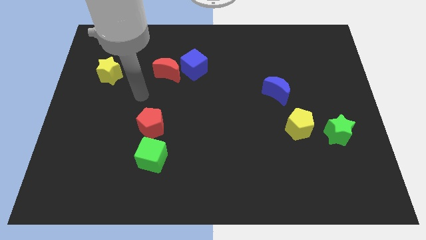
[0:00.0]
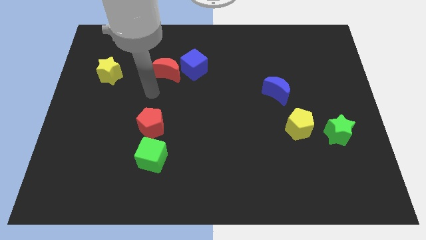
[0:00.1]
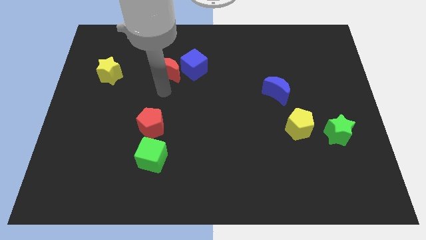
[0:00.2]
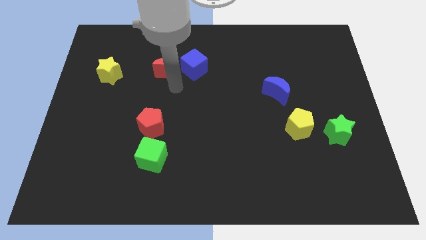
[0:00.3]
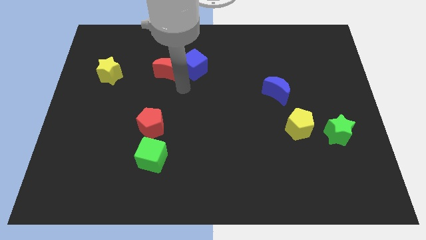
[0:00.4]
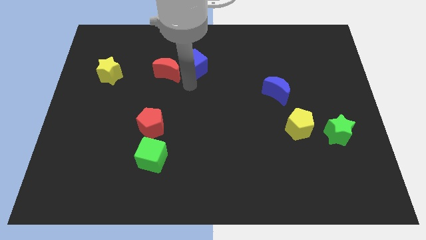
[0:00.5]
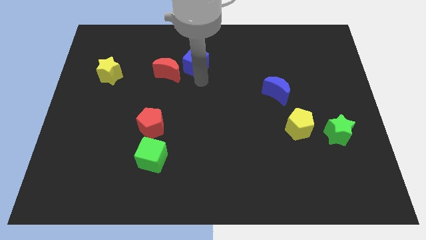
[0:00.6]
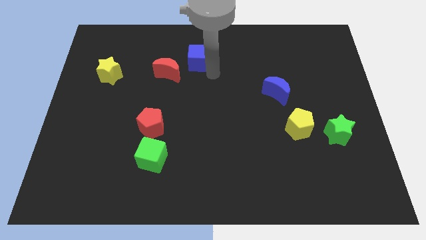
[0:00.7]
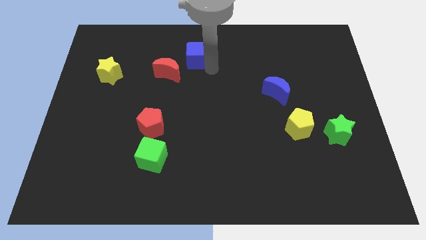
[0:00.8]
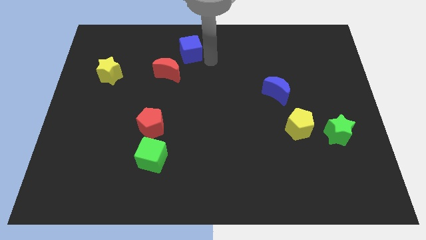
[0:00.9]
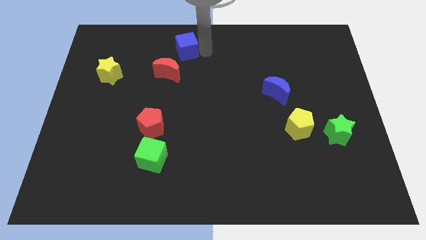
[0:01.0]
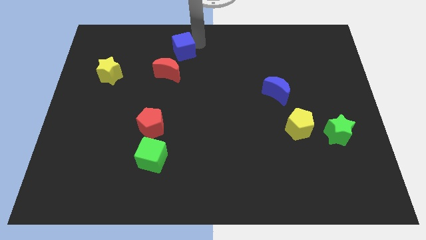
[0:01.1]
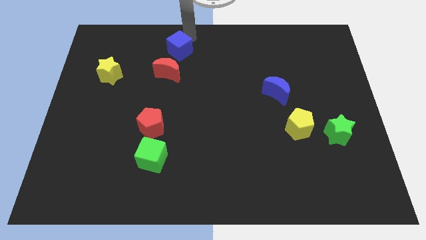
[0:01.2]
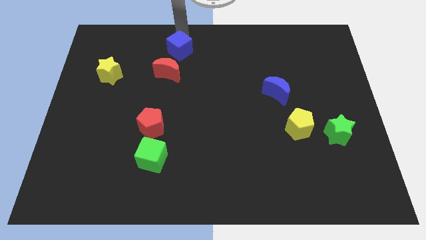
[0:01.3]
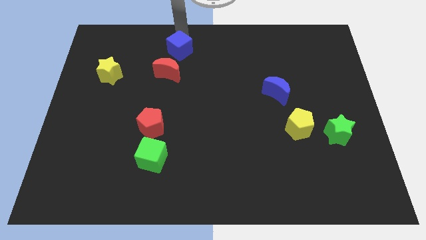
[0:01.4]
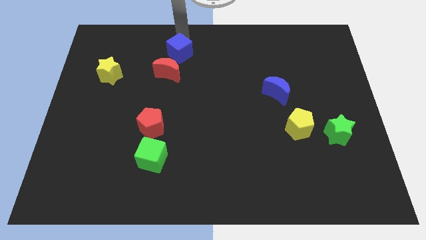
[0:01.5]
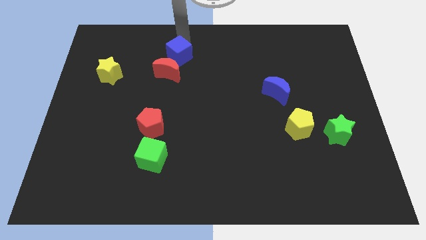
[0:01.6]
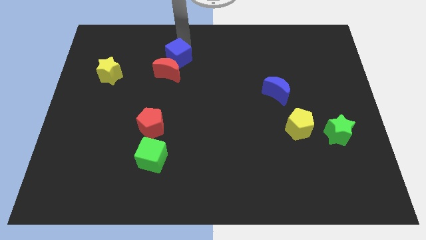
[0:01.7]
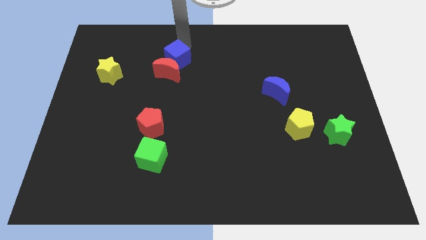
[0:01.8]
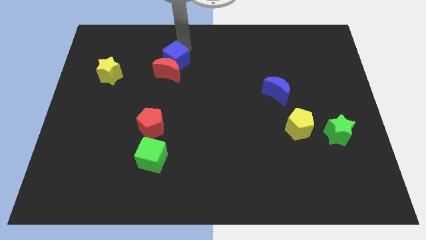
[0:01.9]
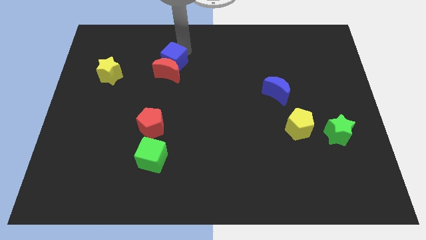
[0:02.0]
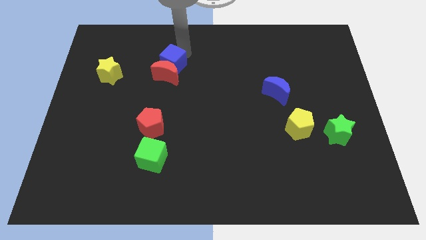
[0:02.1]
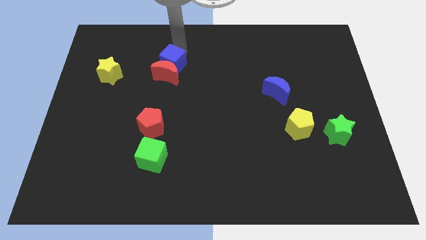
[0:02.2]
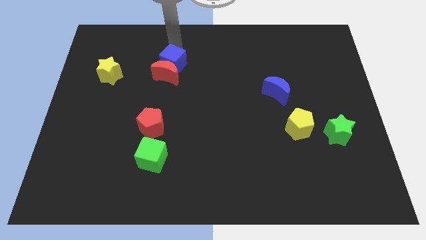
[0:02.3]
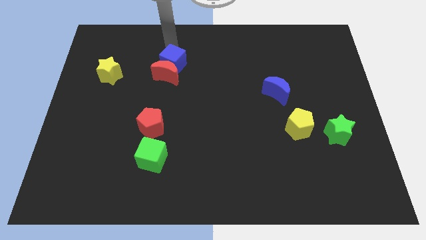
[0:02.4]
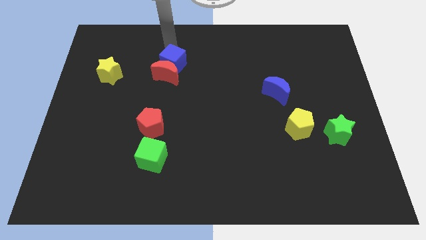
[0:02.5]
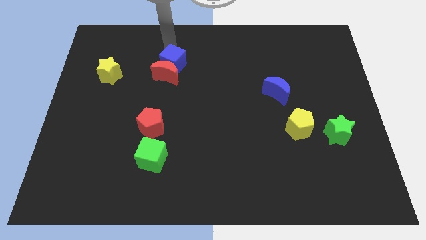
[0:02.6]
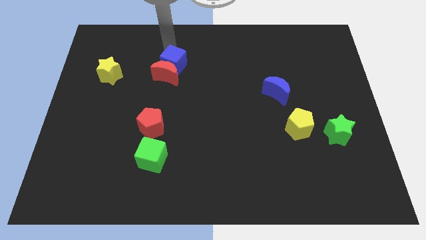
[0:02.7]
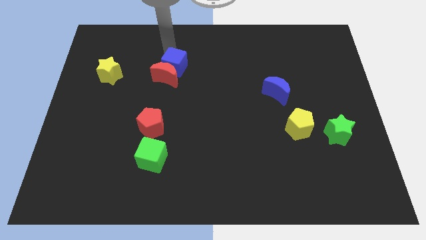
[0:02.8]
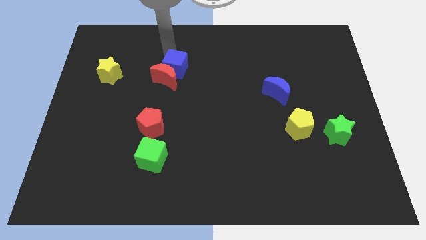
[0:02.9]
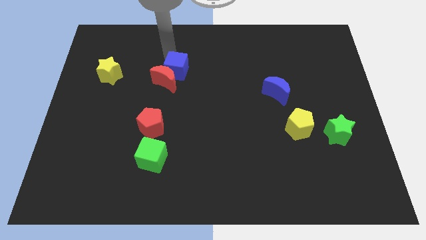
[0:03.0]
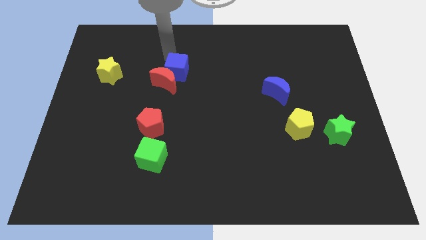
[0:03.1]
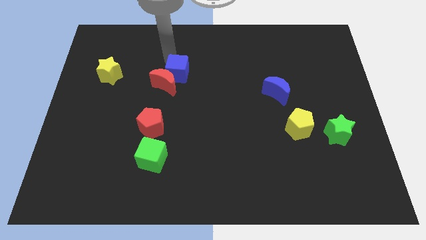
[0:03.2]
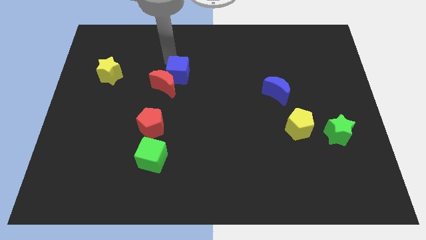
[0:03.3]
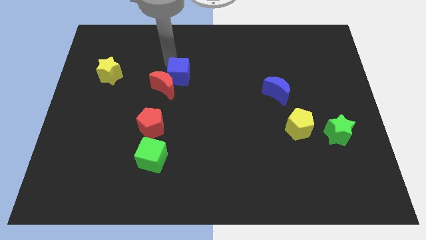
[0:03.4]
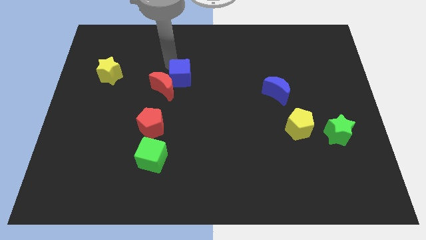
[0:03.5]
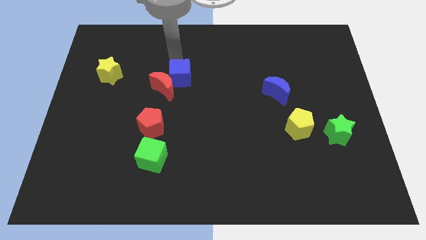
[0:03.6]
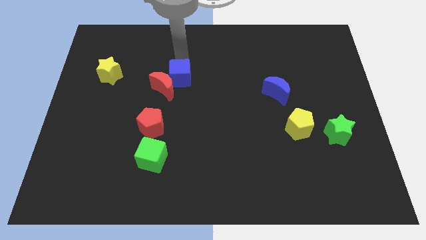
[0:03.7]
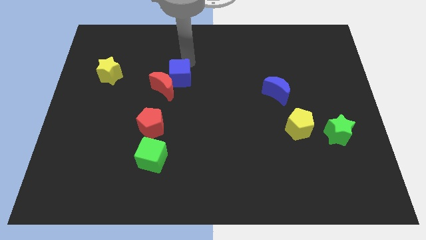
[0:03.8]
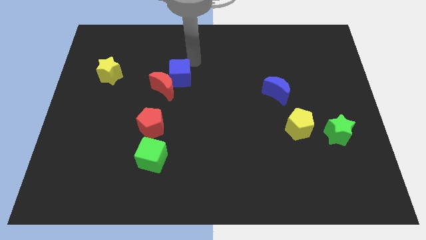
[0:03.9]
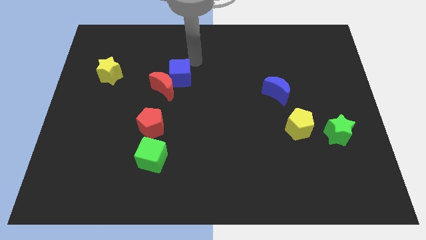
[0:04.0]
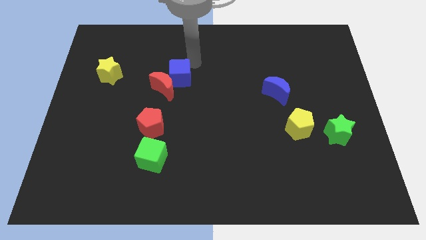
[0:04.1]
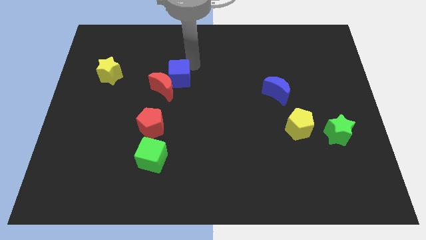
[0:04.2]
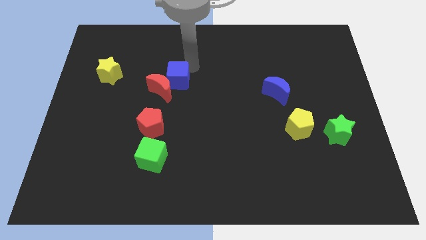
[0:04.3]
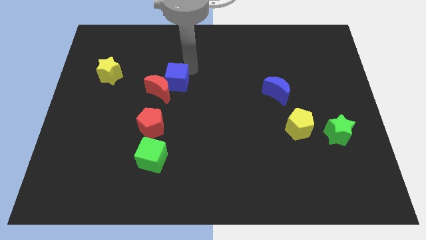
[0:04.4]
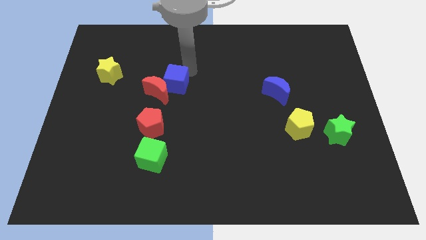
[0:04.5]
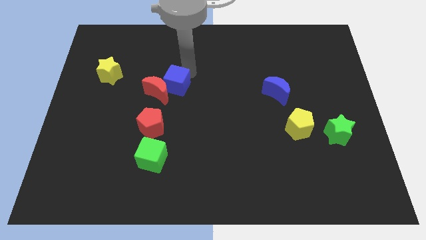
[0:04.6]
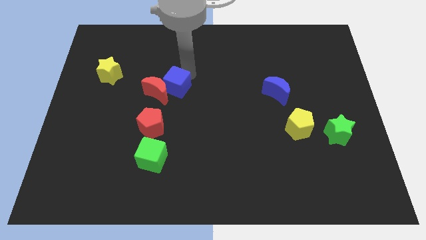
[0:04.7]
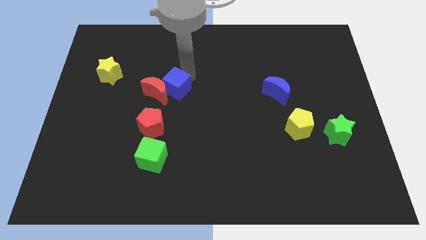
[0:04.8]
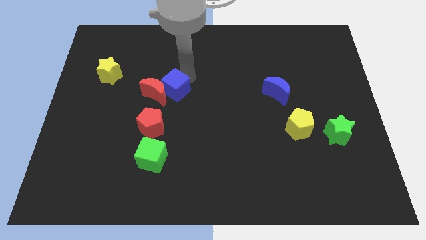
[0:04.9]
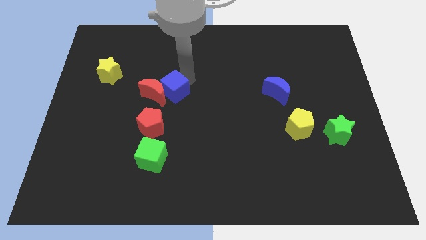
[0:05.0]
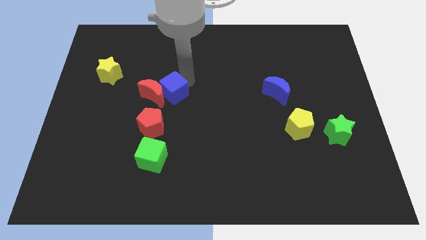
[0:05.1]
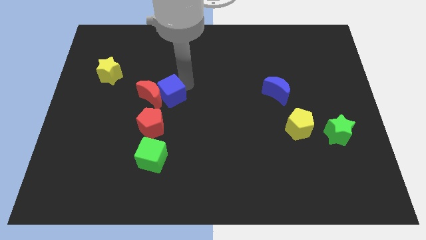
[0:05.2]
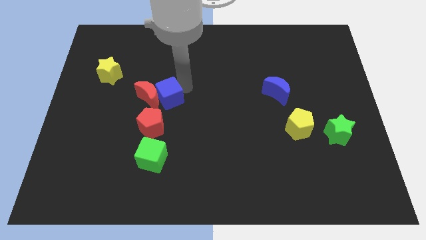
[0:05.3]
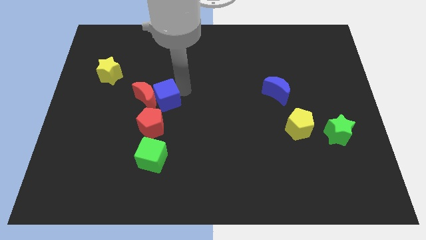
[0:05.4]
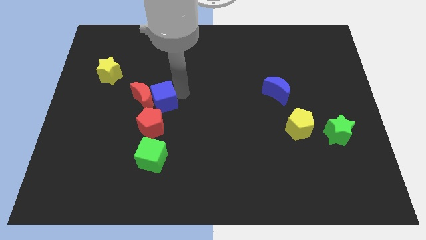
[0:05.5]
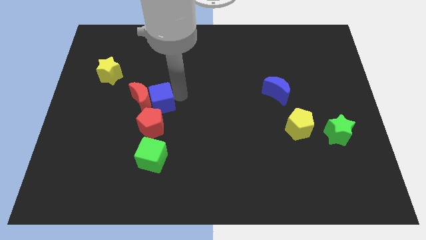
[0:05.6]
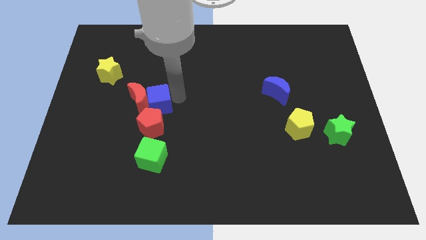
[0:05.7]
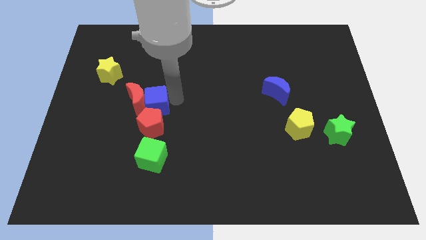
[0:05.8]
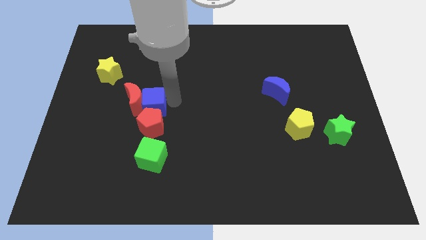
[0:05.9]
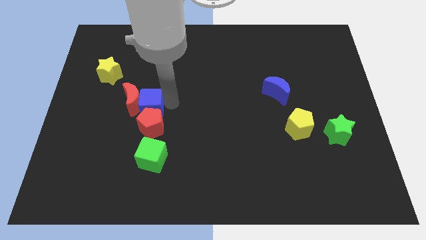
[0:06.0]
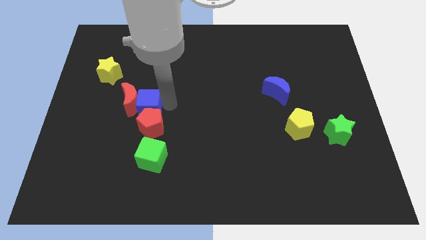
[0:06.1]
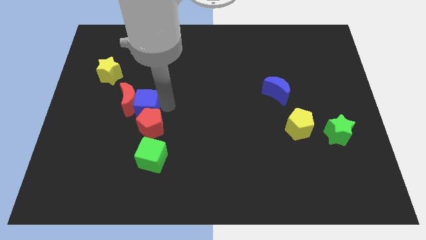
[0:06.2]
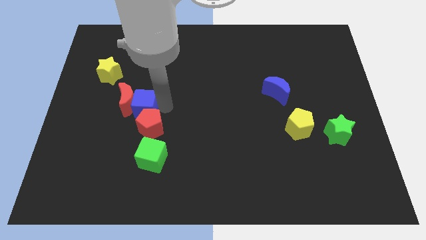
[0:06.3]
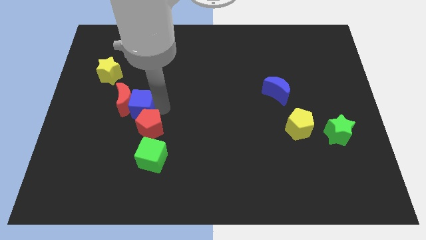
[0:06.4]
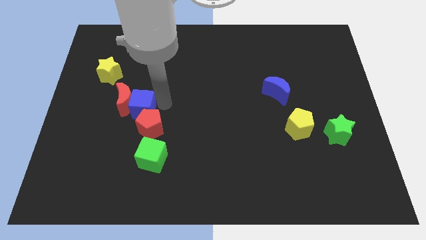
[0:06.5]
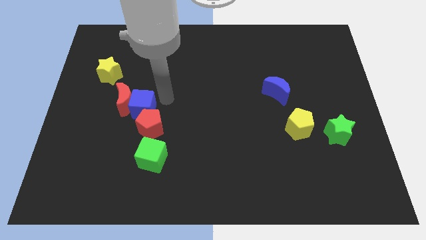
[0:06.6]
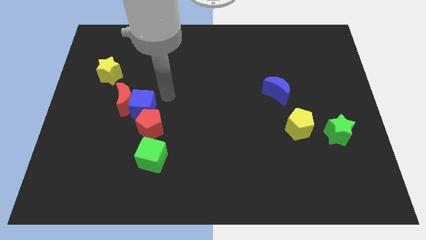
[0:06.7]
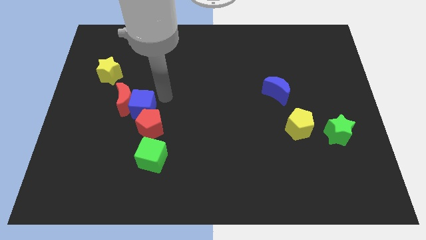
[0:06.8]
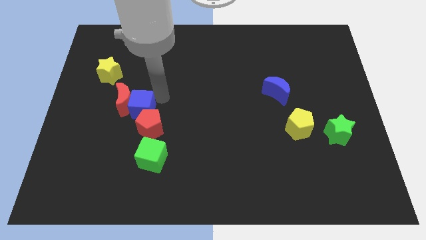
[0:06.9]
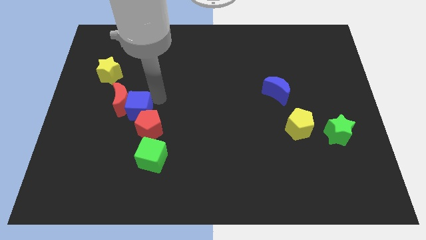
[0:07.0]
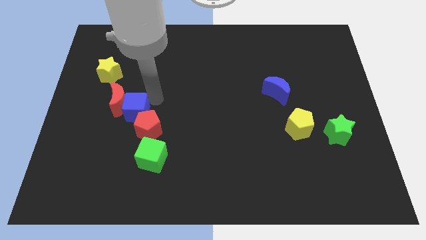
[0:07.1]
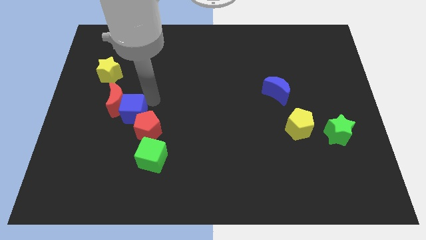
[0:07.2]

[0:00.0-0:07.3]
push the blue cube diagonally downwards and to the left

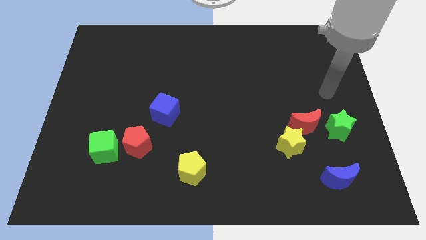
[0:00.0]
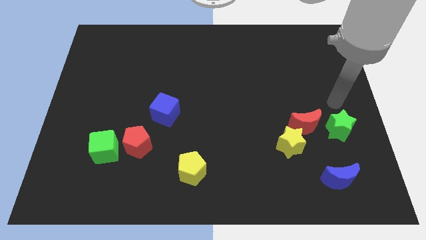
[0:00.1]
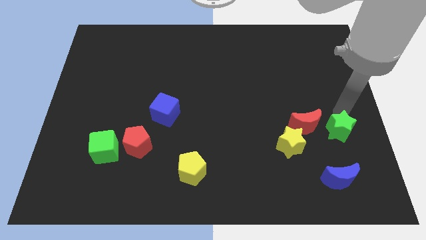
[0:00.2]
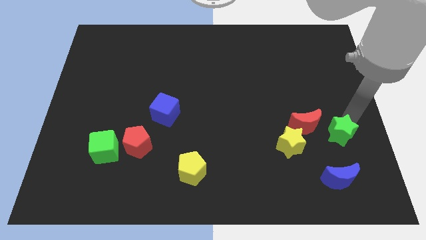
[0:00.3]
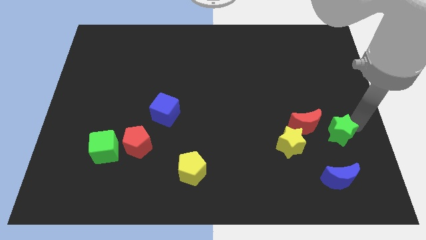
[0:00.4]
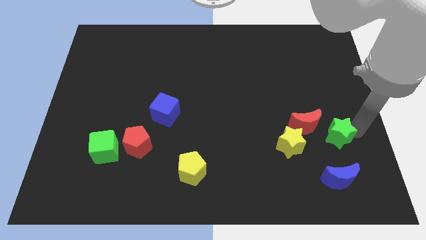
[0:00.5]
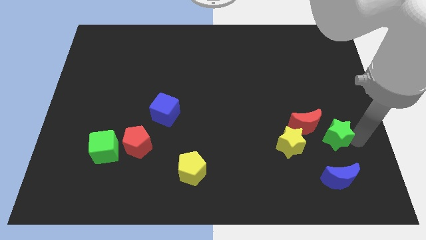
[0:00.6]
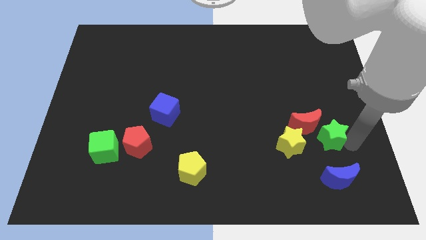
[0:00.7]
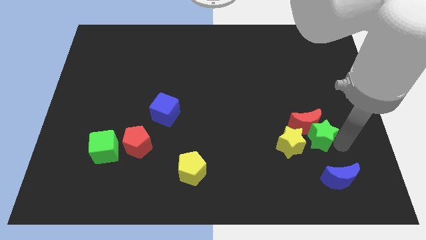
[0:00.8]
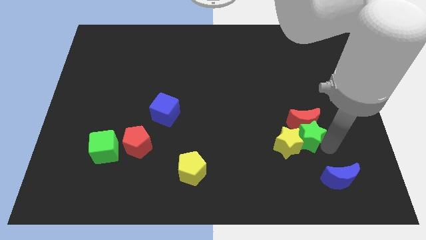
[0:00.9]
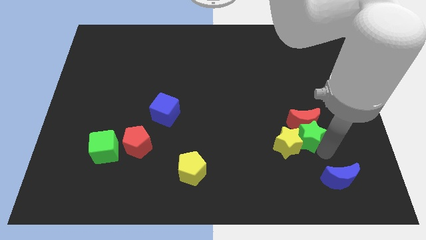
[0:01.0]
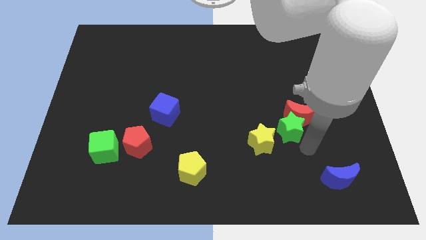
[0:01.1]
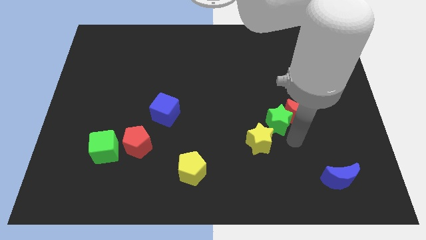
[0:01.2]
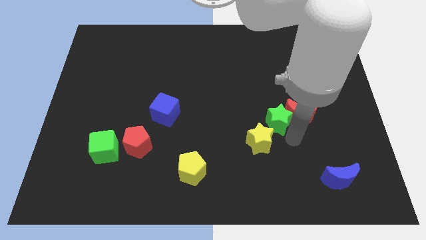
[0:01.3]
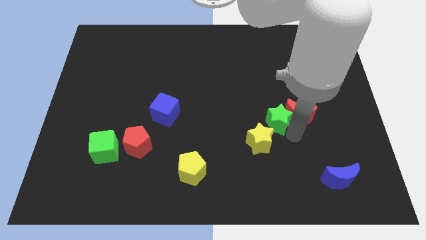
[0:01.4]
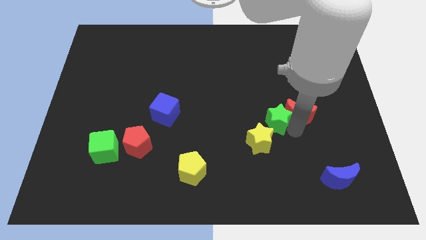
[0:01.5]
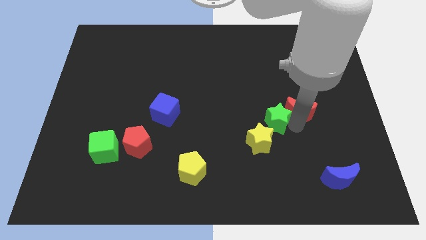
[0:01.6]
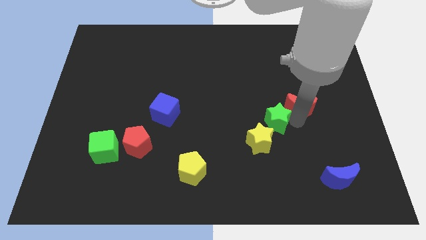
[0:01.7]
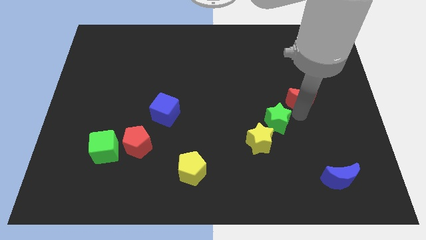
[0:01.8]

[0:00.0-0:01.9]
slide the red moon upwards a little bit
